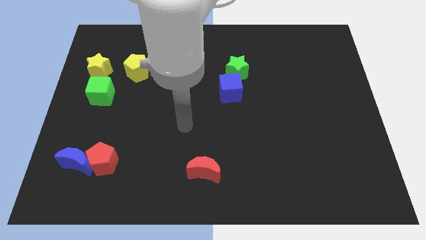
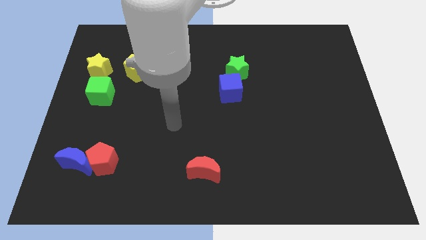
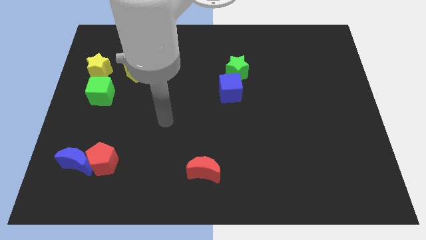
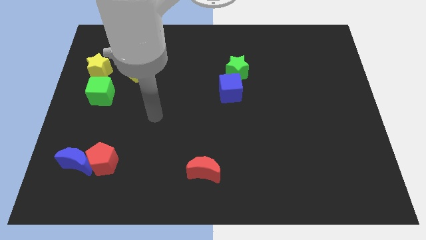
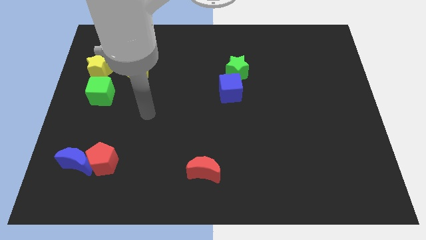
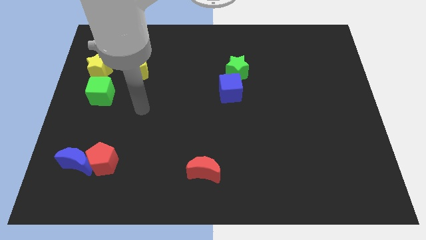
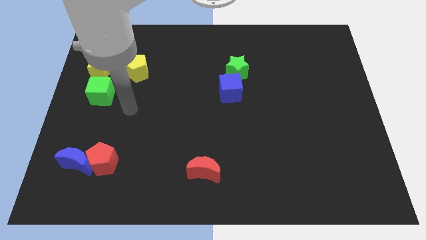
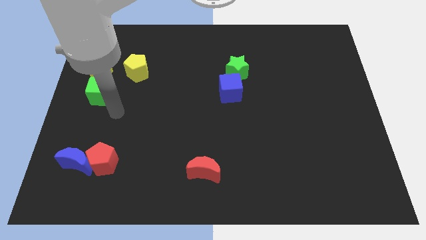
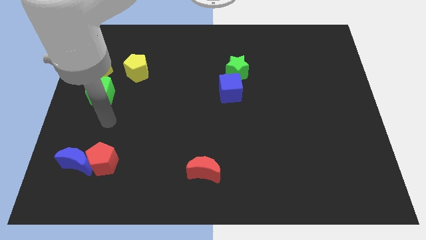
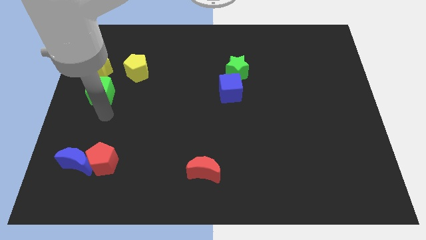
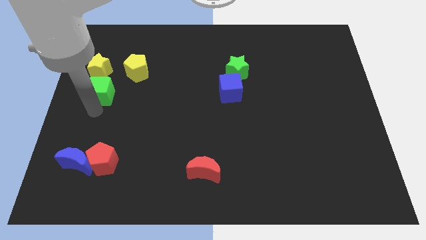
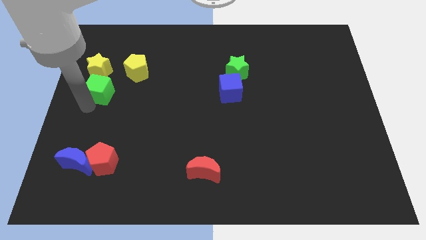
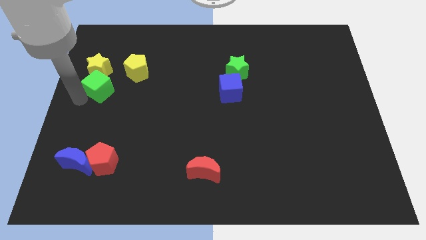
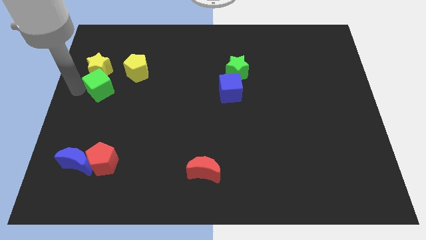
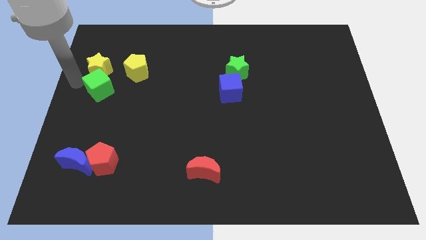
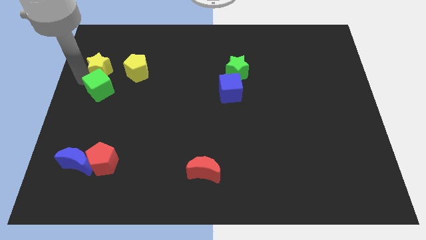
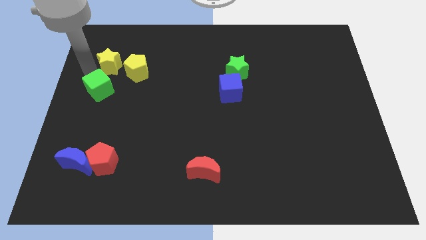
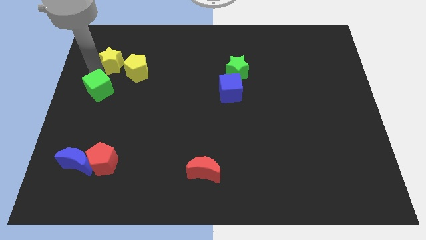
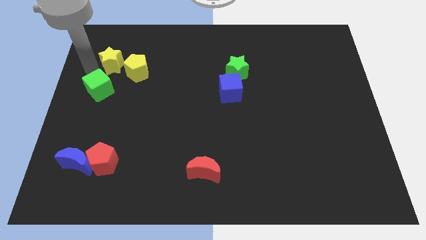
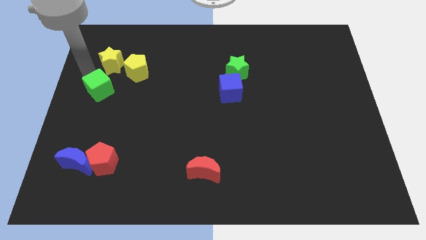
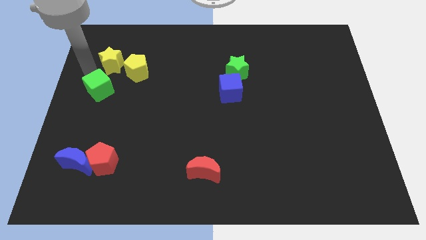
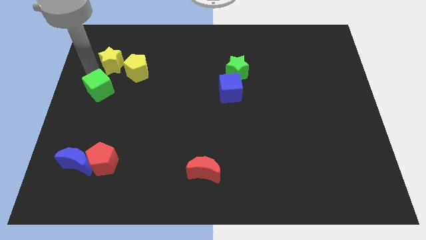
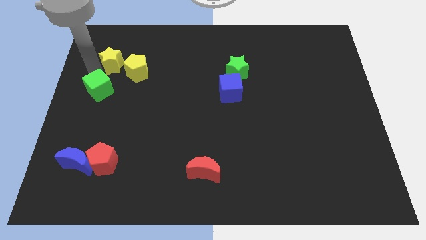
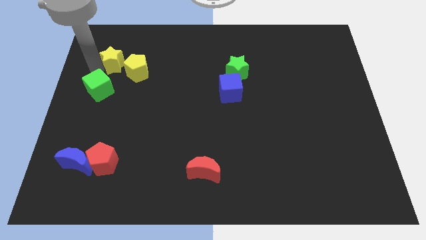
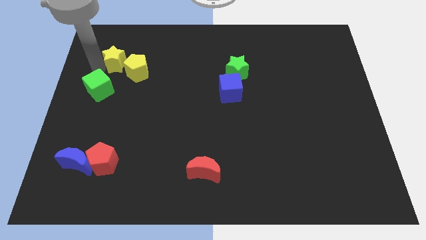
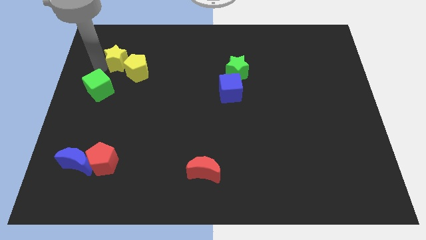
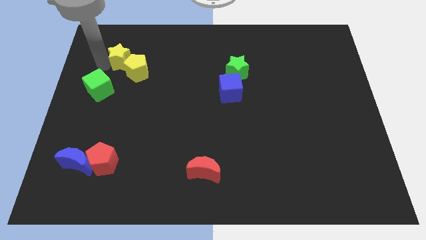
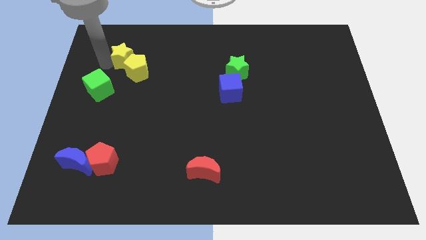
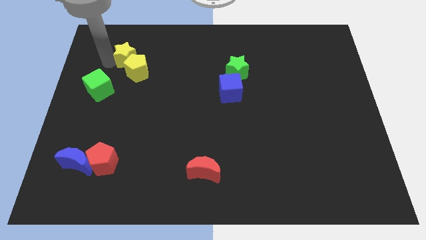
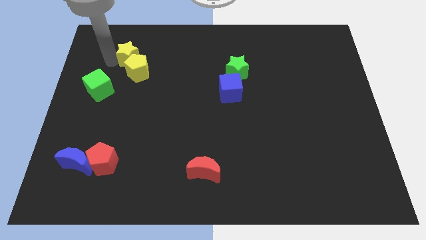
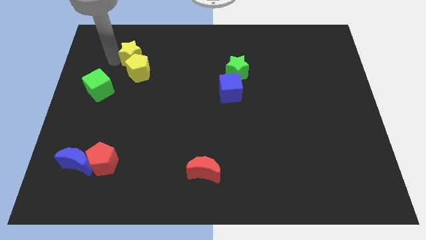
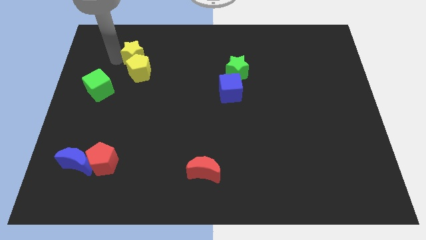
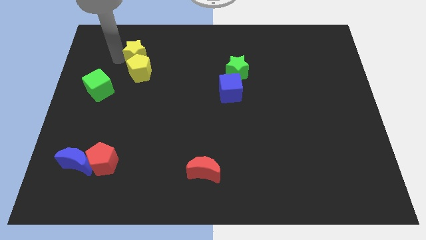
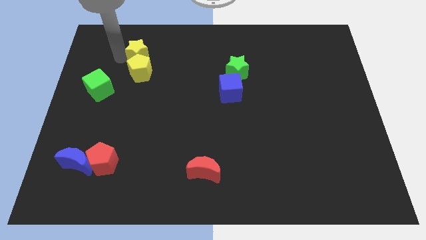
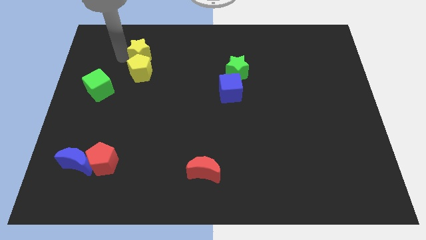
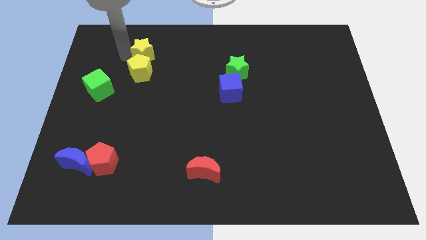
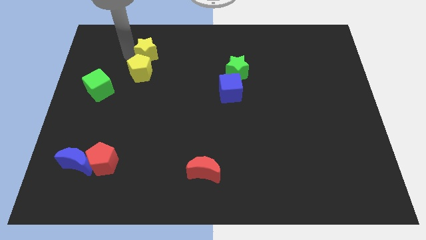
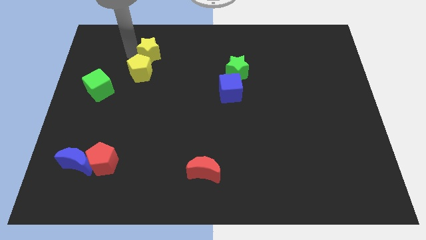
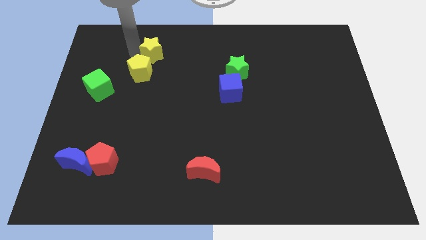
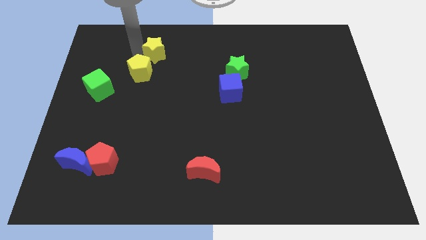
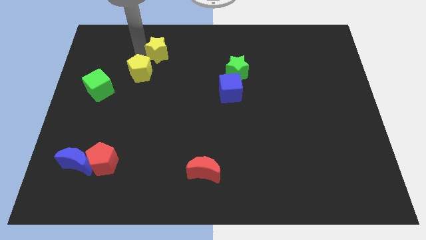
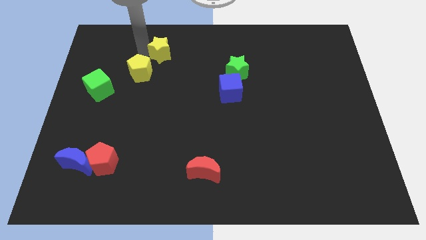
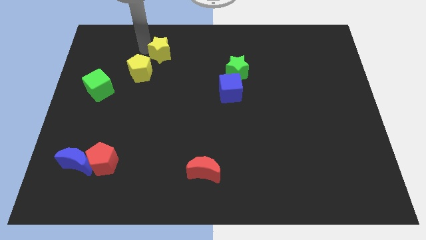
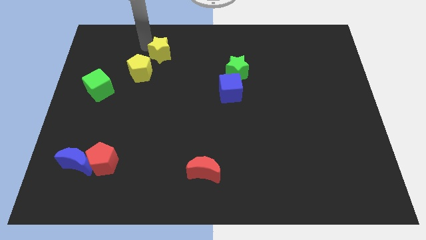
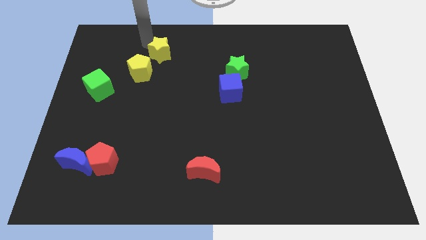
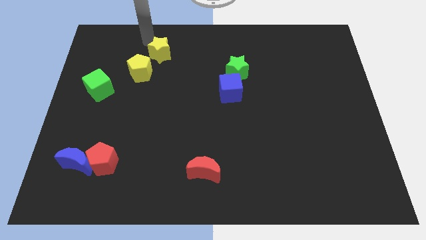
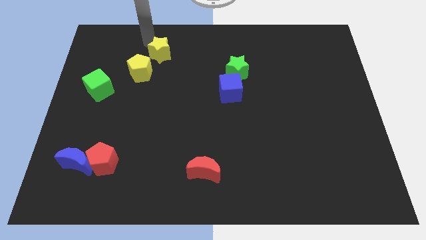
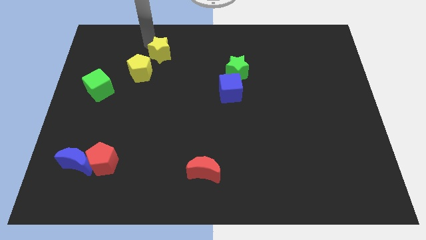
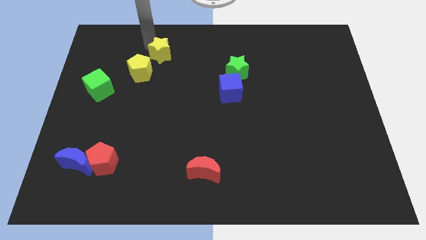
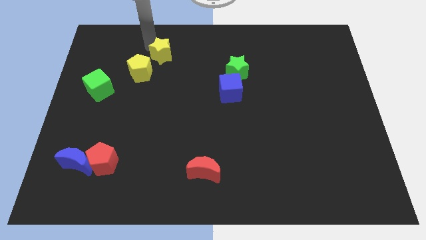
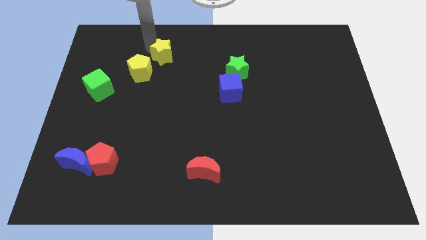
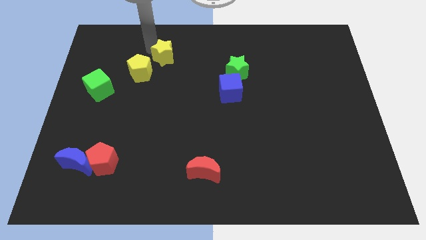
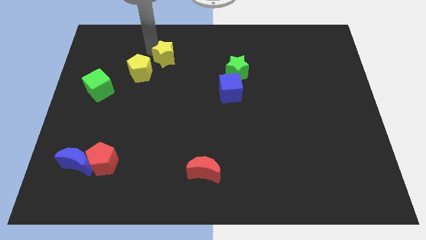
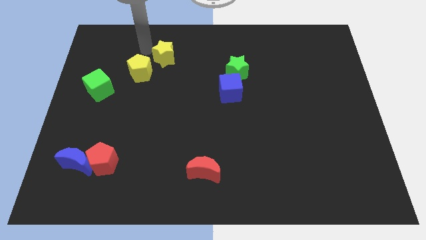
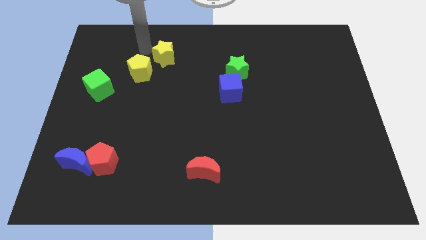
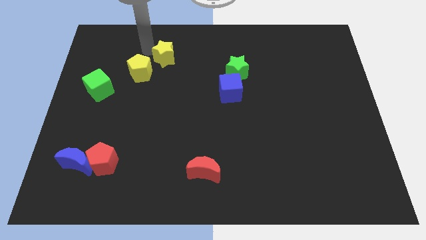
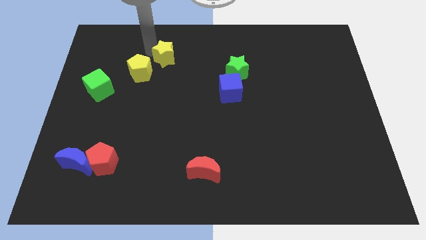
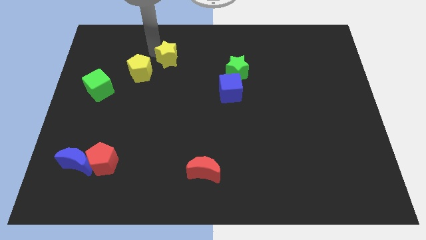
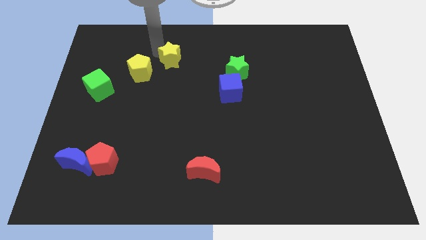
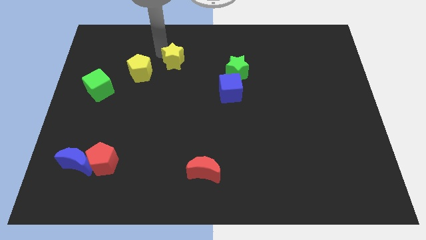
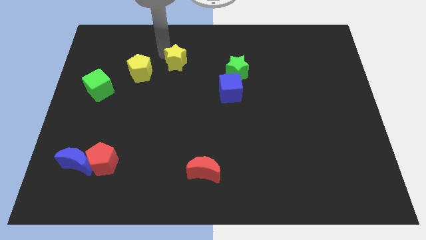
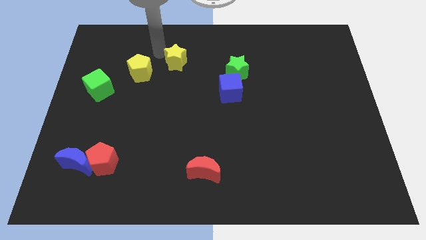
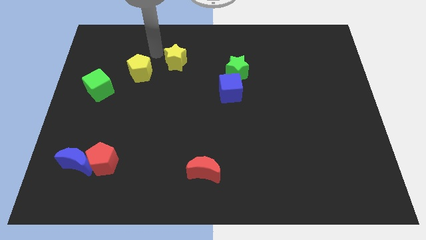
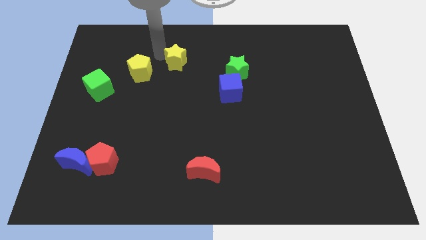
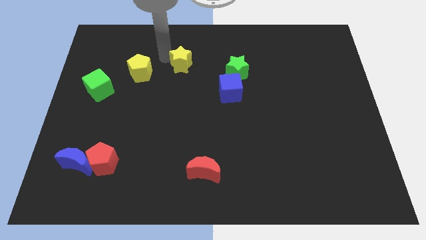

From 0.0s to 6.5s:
put the yellow star left of the green star

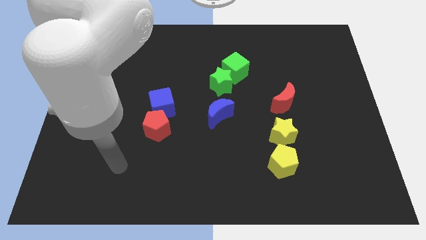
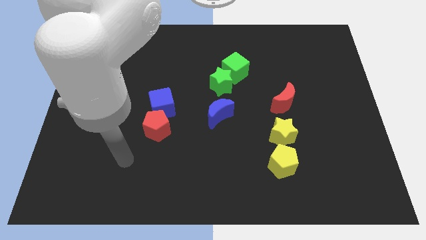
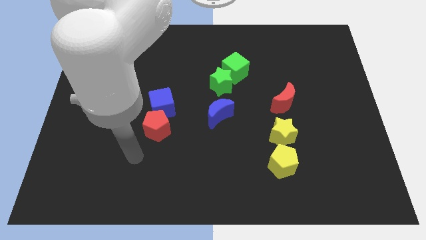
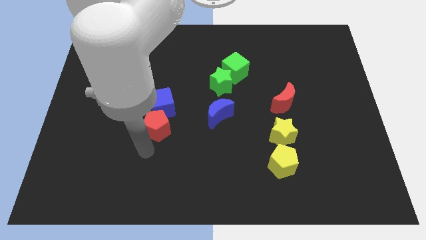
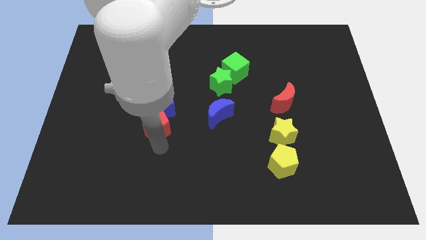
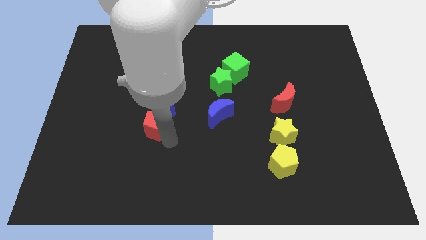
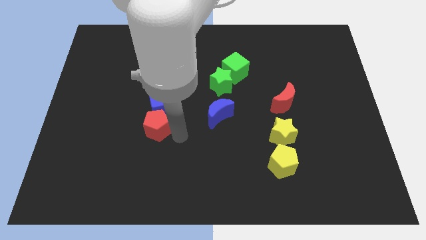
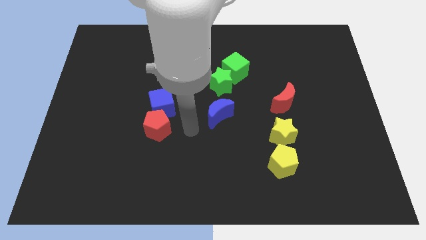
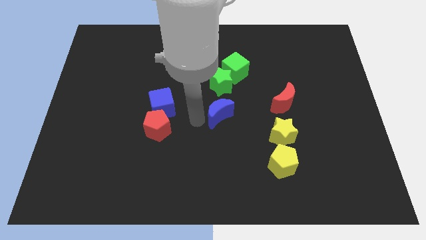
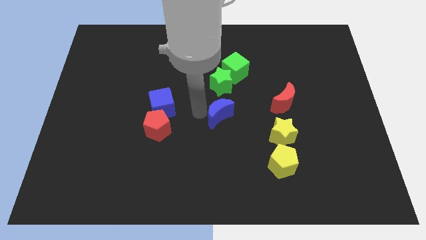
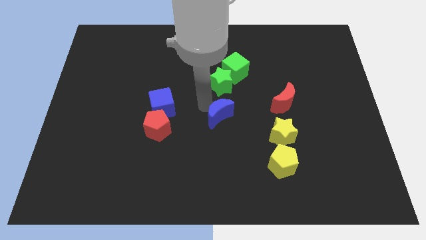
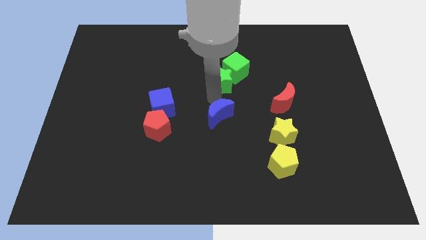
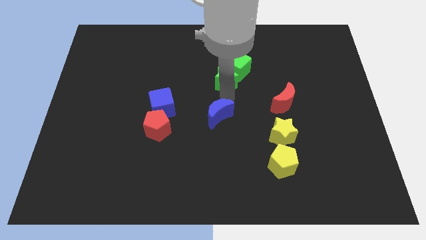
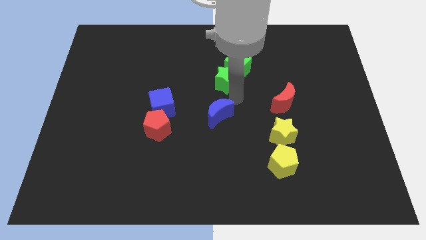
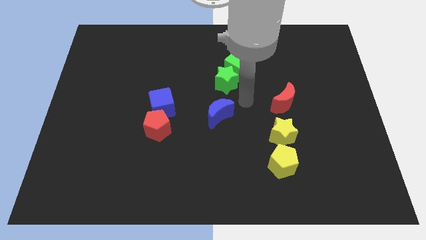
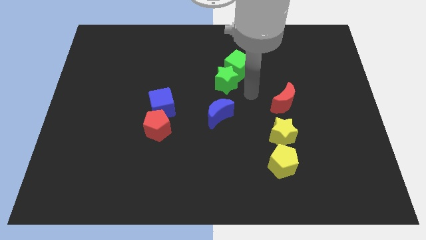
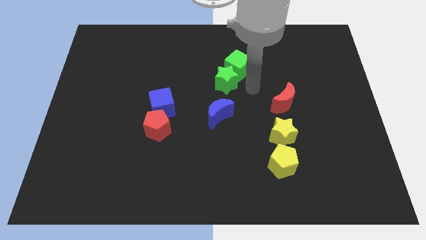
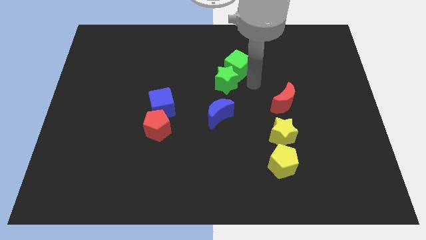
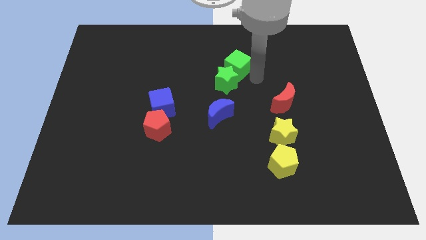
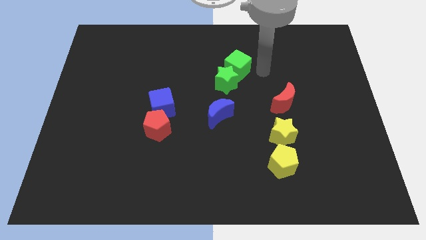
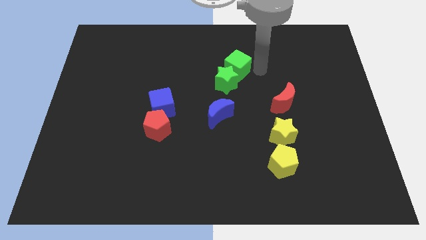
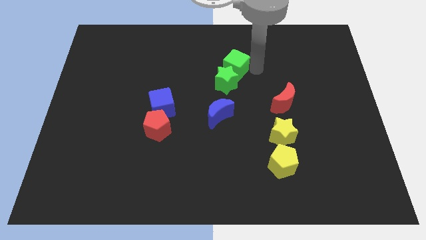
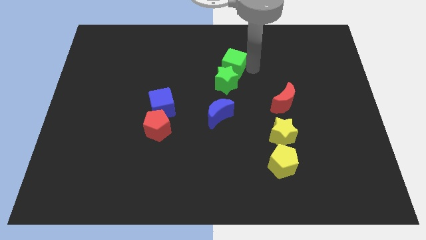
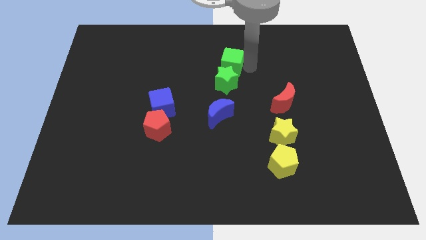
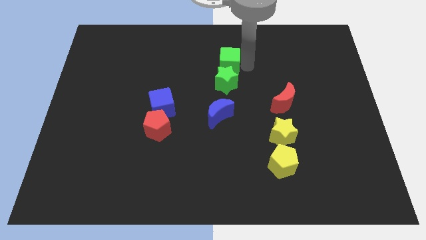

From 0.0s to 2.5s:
move the green cube to the top left of the green star
